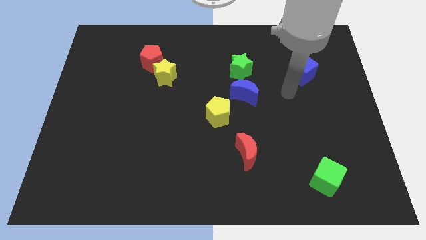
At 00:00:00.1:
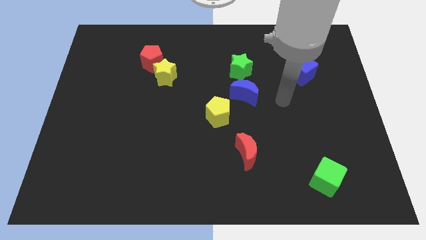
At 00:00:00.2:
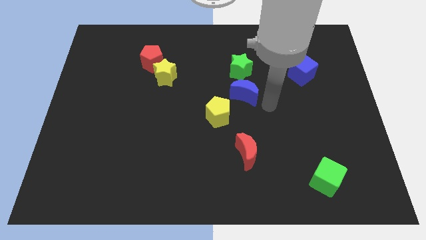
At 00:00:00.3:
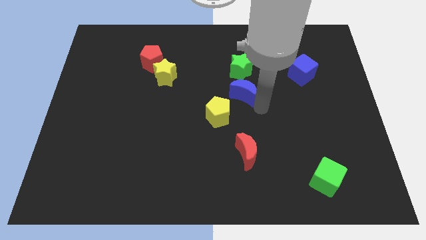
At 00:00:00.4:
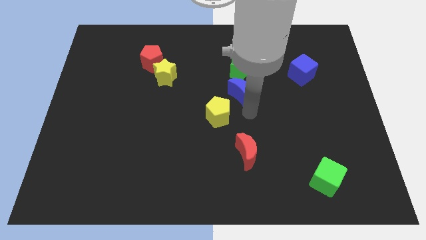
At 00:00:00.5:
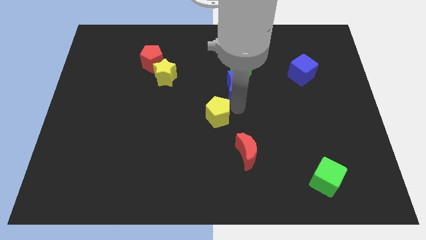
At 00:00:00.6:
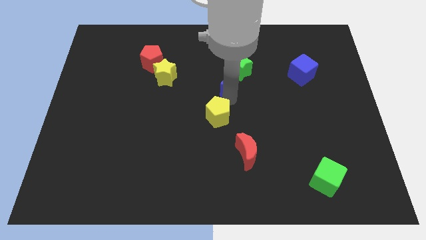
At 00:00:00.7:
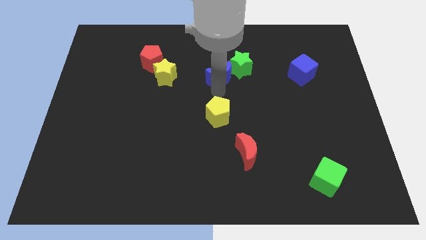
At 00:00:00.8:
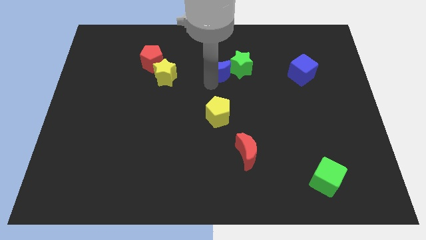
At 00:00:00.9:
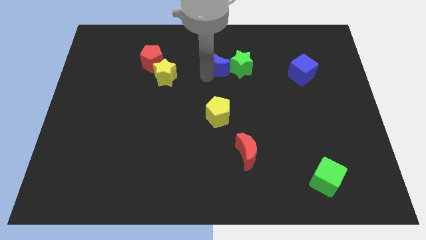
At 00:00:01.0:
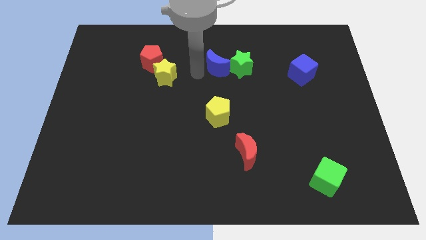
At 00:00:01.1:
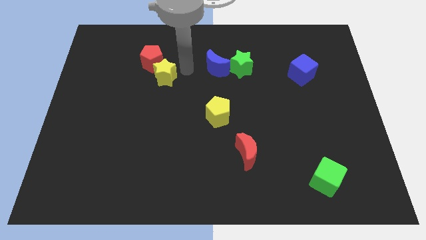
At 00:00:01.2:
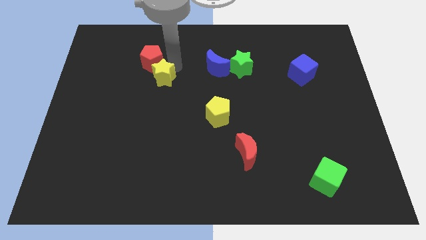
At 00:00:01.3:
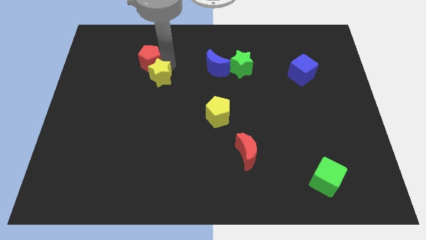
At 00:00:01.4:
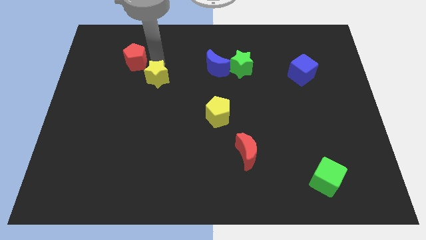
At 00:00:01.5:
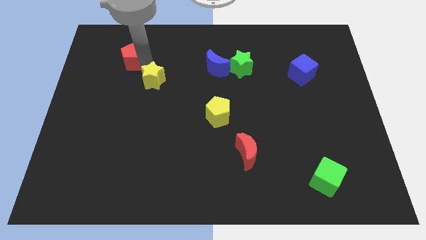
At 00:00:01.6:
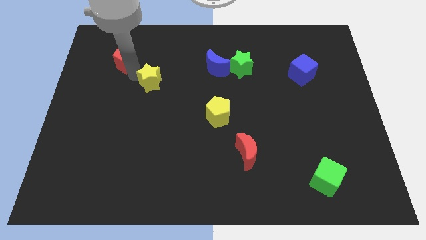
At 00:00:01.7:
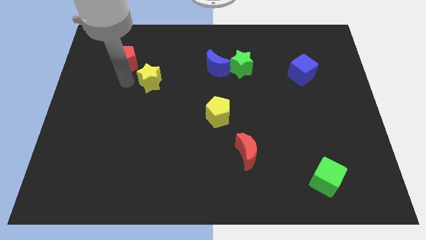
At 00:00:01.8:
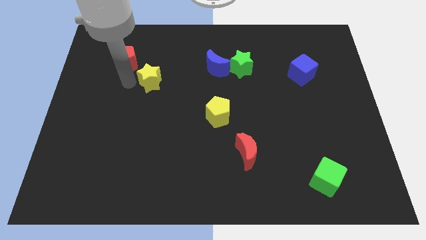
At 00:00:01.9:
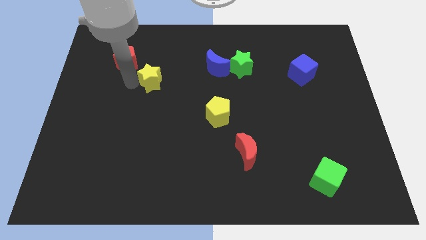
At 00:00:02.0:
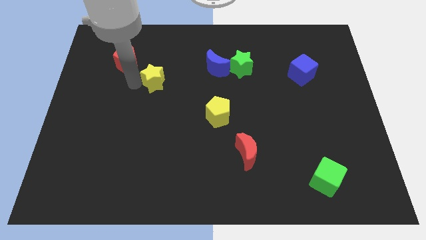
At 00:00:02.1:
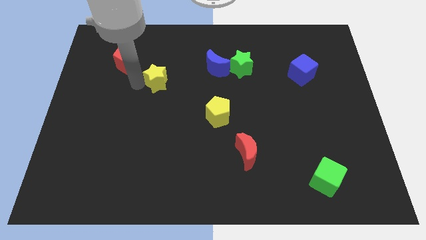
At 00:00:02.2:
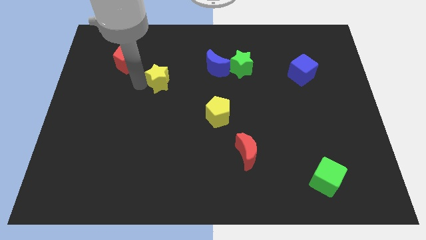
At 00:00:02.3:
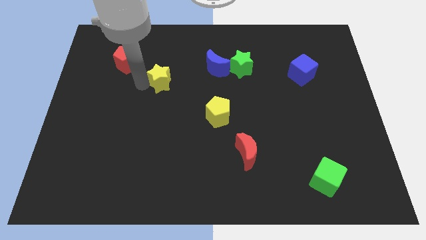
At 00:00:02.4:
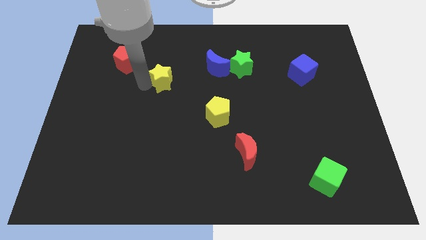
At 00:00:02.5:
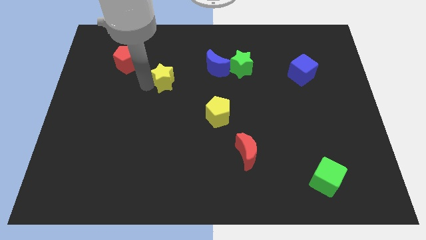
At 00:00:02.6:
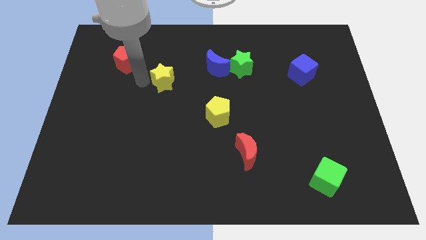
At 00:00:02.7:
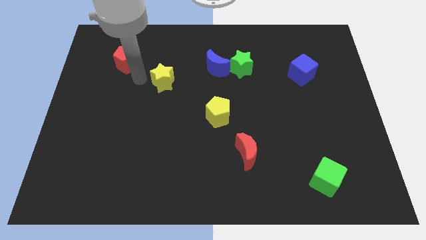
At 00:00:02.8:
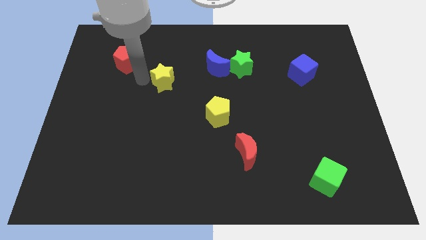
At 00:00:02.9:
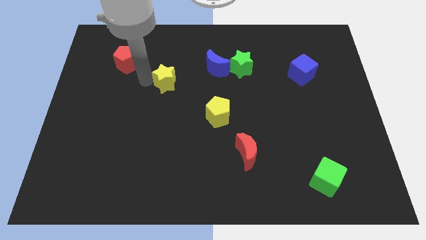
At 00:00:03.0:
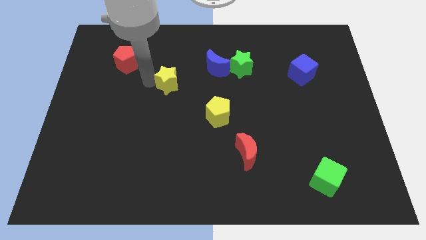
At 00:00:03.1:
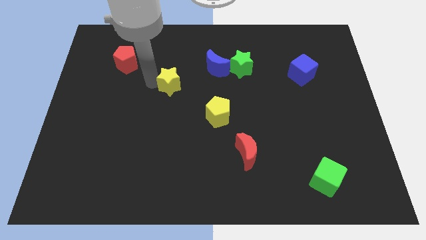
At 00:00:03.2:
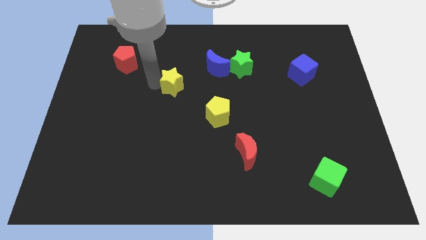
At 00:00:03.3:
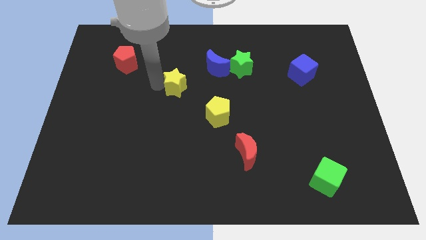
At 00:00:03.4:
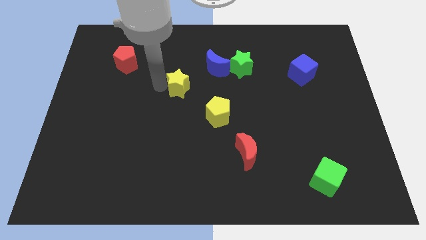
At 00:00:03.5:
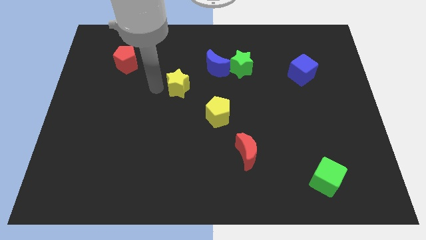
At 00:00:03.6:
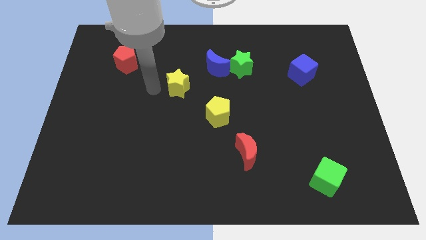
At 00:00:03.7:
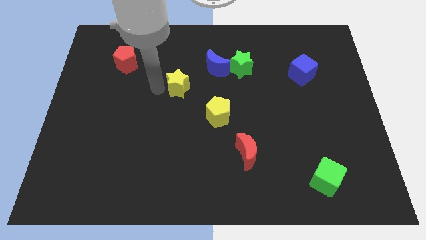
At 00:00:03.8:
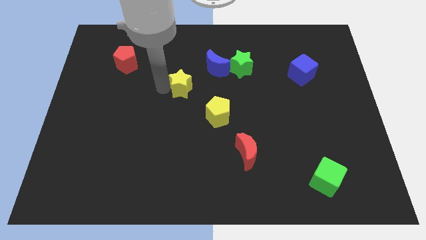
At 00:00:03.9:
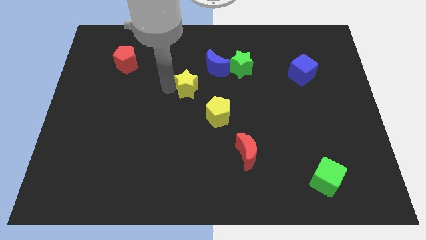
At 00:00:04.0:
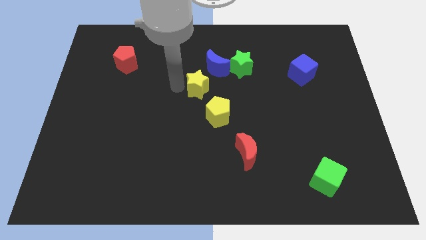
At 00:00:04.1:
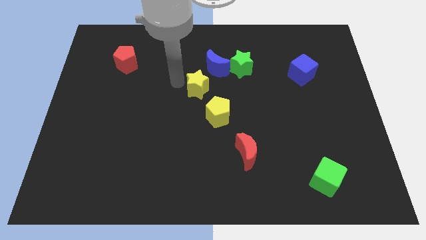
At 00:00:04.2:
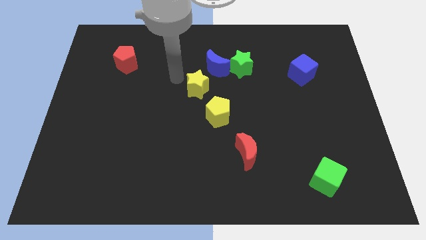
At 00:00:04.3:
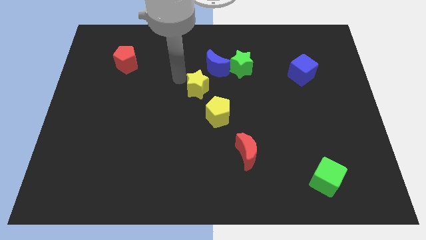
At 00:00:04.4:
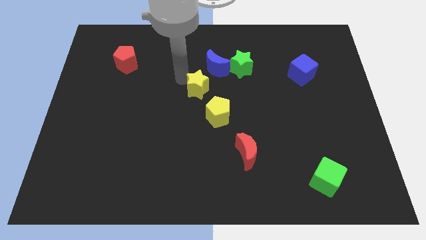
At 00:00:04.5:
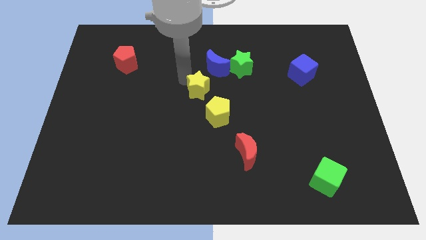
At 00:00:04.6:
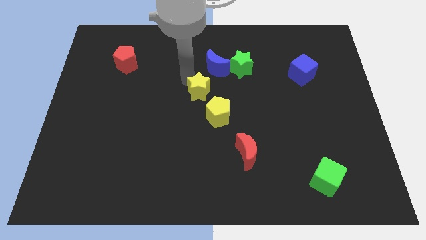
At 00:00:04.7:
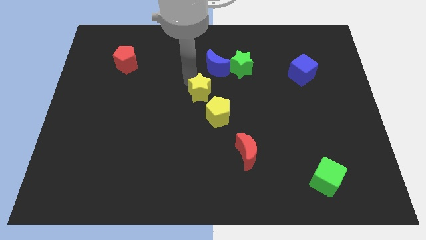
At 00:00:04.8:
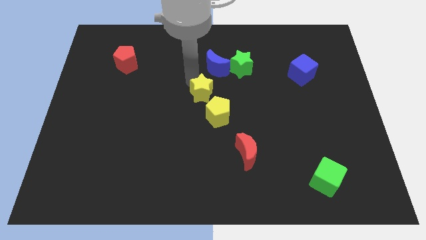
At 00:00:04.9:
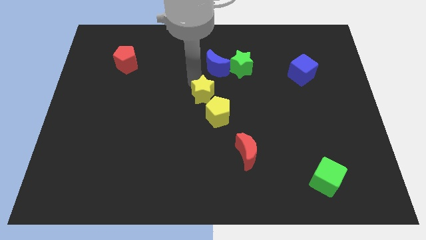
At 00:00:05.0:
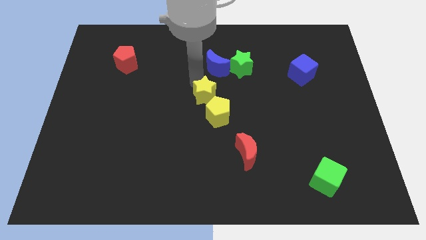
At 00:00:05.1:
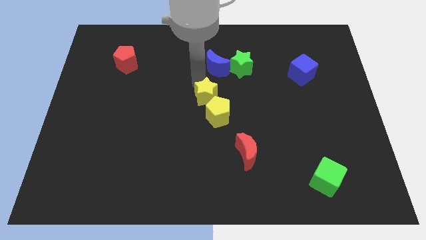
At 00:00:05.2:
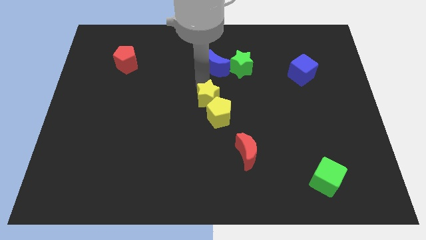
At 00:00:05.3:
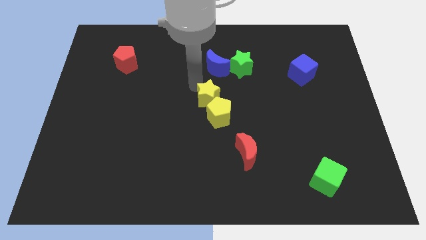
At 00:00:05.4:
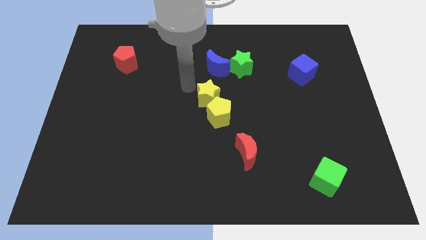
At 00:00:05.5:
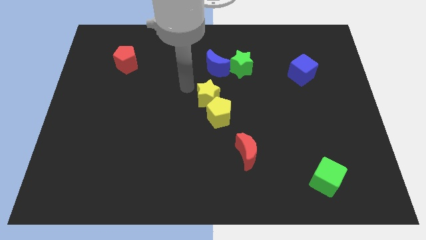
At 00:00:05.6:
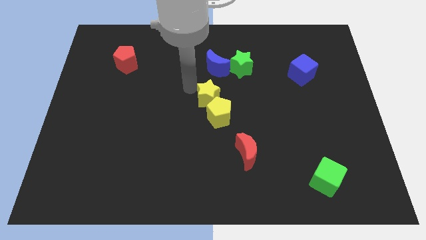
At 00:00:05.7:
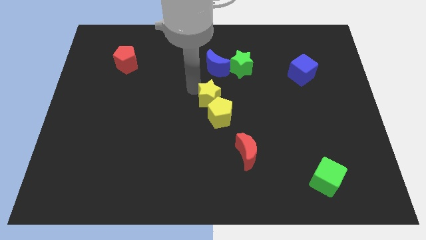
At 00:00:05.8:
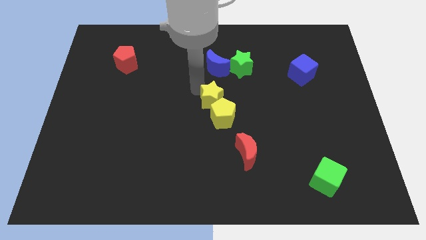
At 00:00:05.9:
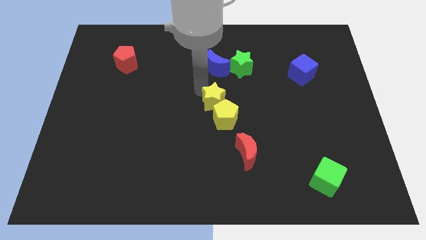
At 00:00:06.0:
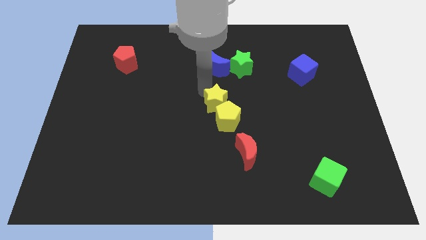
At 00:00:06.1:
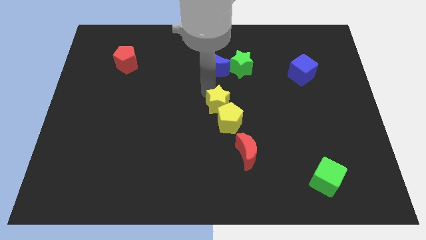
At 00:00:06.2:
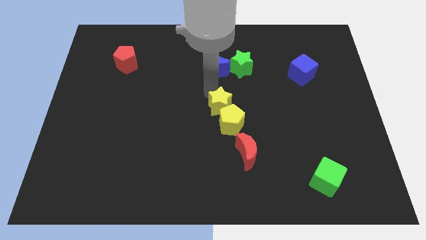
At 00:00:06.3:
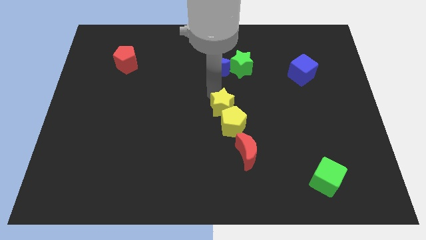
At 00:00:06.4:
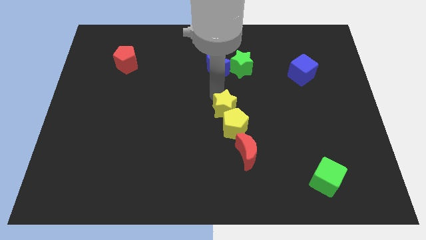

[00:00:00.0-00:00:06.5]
put the yellow star to the top of the red moon
